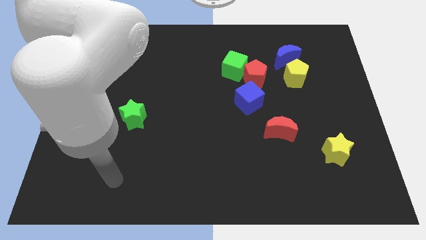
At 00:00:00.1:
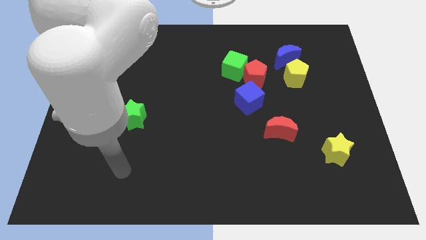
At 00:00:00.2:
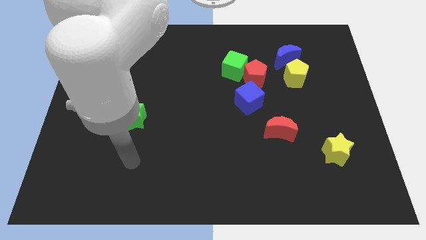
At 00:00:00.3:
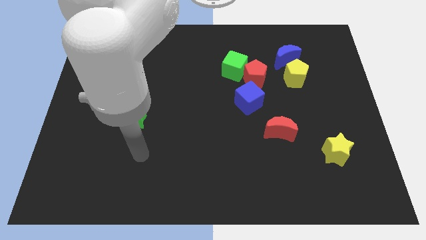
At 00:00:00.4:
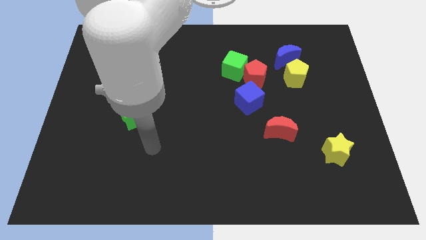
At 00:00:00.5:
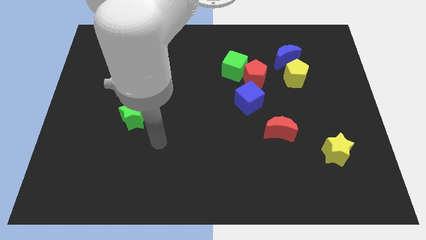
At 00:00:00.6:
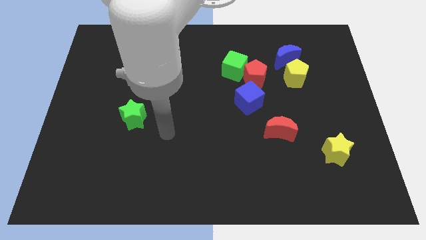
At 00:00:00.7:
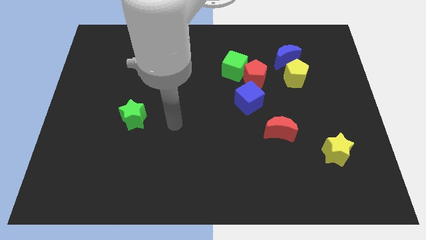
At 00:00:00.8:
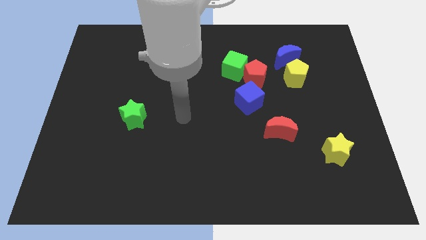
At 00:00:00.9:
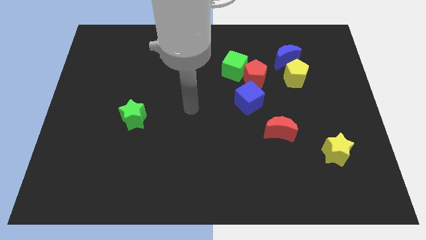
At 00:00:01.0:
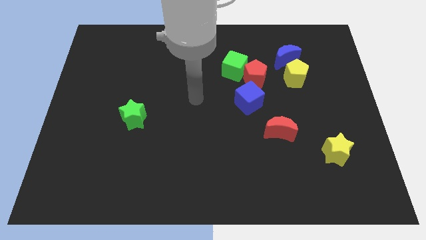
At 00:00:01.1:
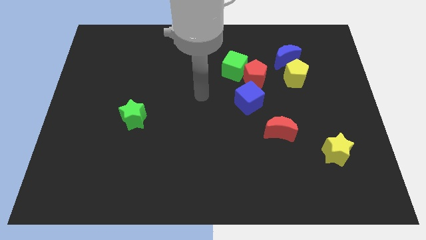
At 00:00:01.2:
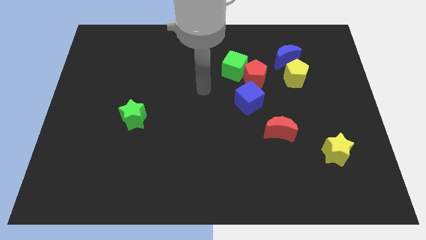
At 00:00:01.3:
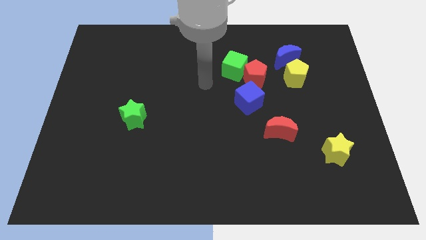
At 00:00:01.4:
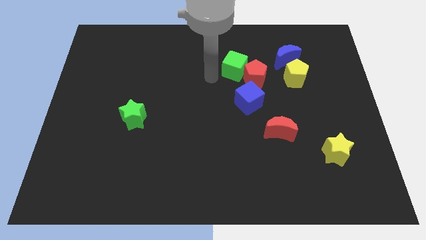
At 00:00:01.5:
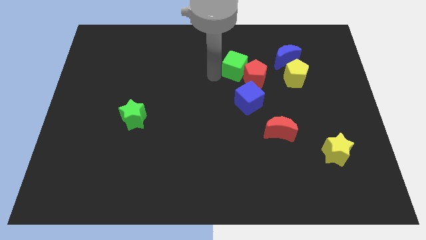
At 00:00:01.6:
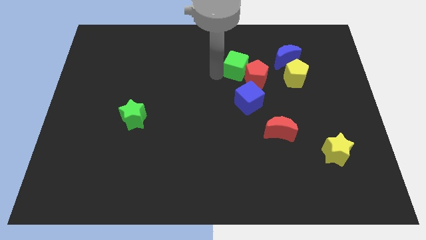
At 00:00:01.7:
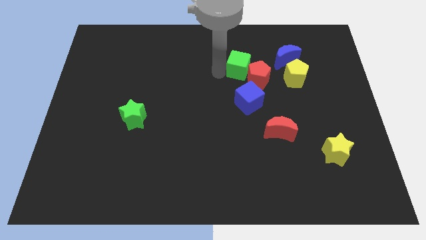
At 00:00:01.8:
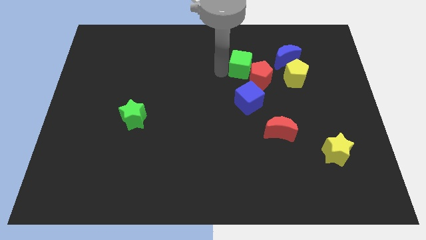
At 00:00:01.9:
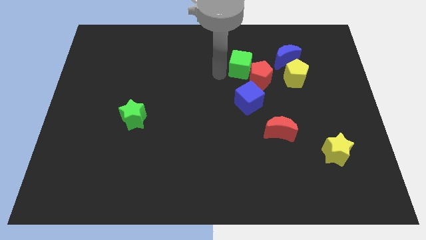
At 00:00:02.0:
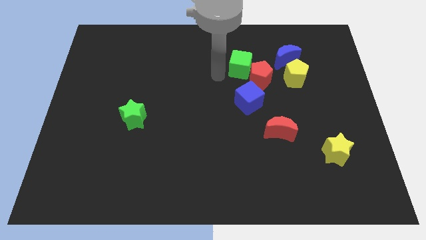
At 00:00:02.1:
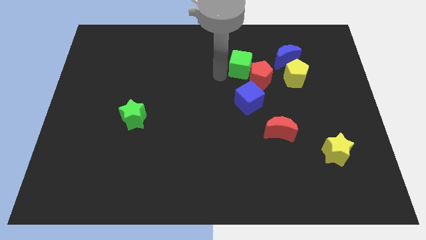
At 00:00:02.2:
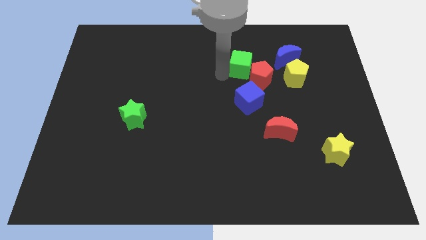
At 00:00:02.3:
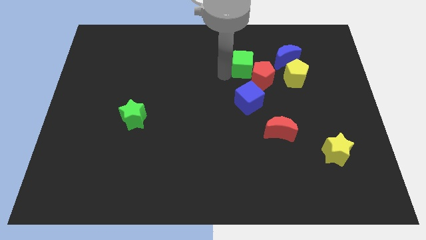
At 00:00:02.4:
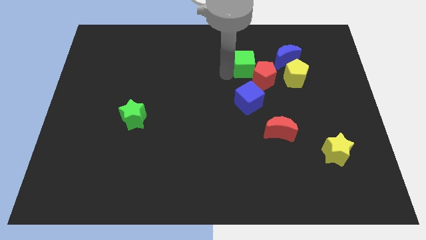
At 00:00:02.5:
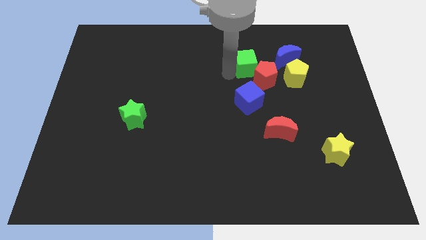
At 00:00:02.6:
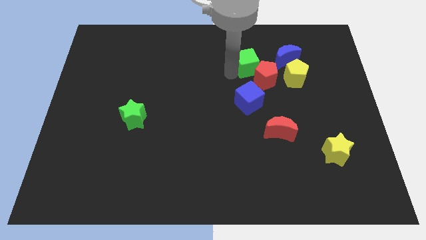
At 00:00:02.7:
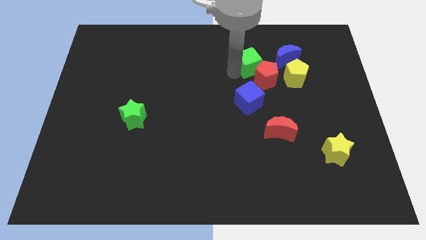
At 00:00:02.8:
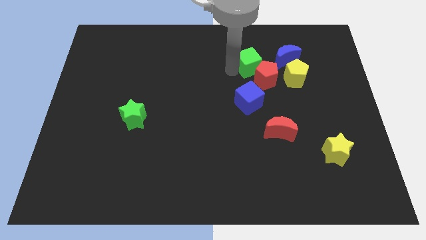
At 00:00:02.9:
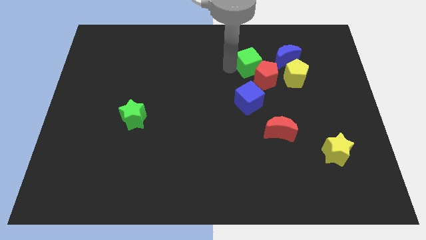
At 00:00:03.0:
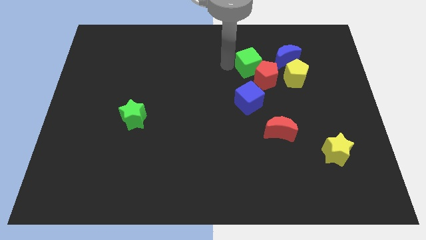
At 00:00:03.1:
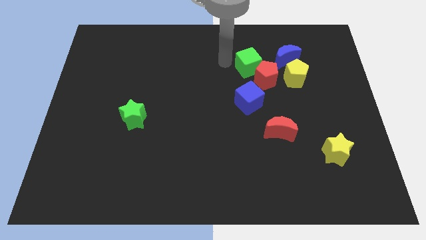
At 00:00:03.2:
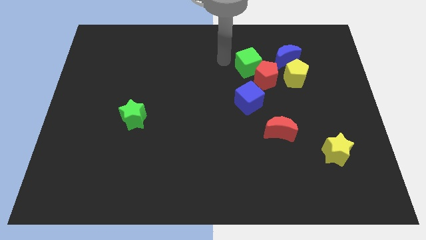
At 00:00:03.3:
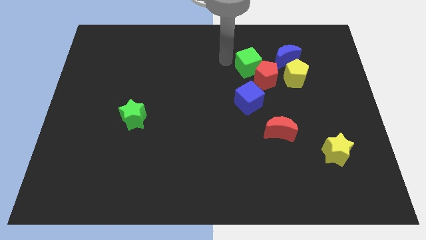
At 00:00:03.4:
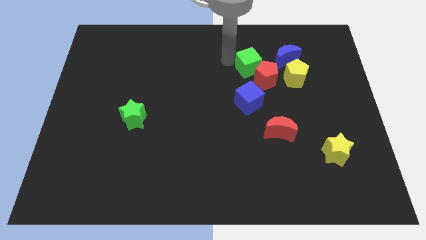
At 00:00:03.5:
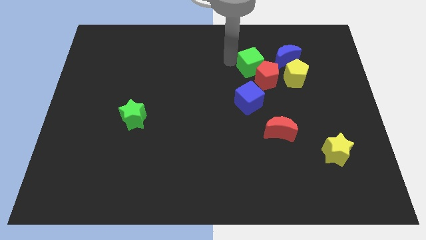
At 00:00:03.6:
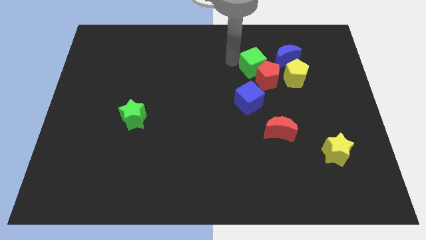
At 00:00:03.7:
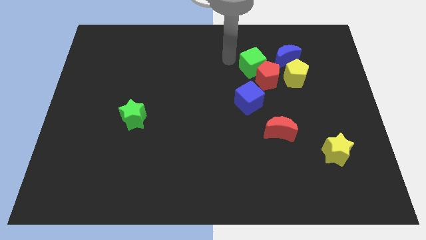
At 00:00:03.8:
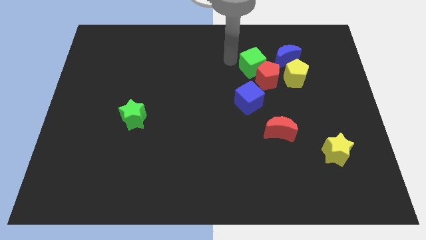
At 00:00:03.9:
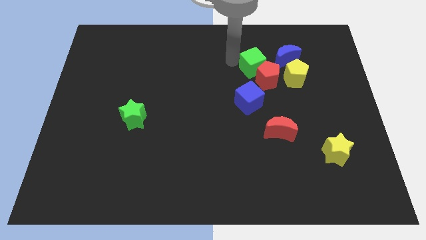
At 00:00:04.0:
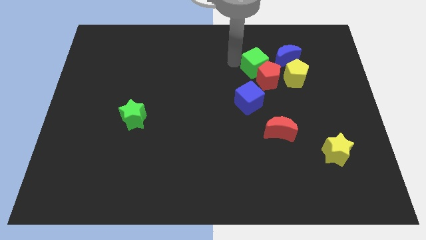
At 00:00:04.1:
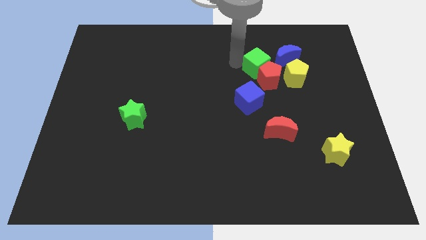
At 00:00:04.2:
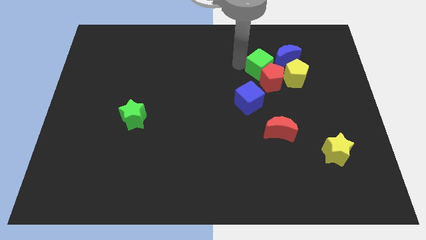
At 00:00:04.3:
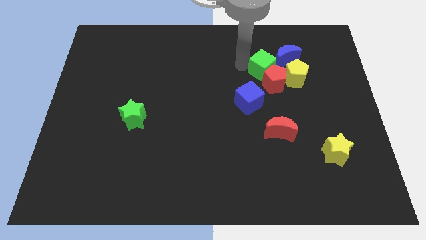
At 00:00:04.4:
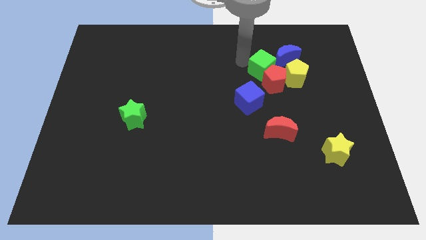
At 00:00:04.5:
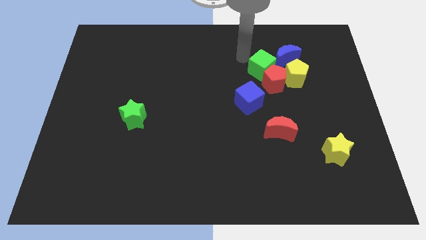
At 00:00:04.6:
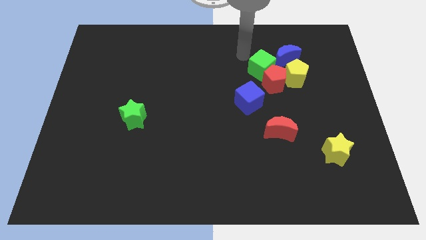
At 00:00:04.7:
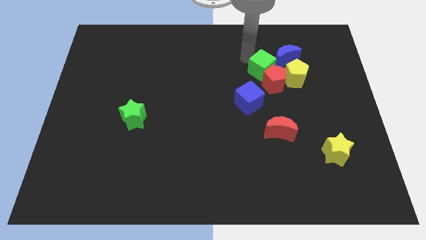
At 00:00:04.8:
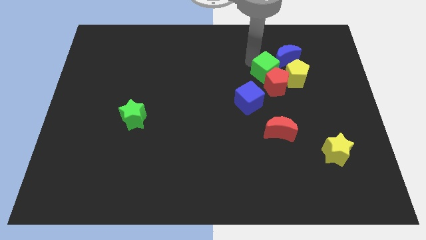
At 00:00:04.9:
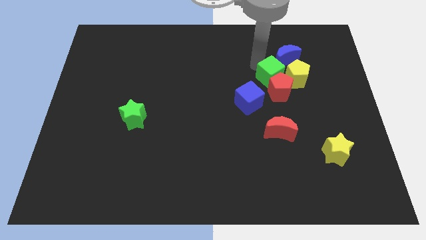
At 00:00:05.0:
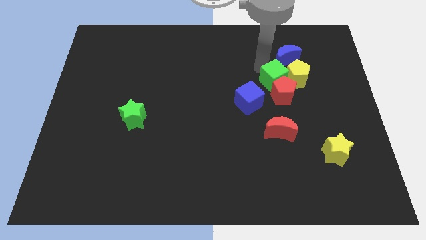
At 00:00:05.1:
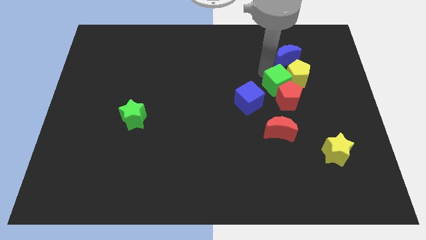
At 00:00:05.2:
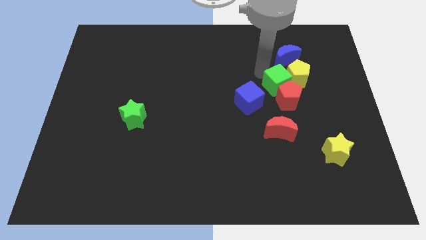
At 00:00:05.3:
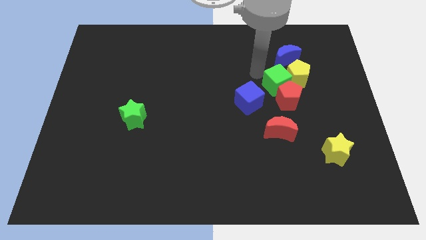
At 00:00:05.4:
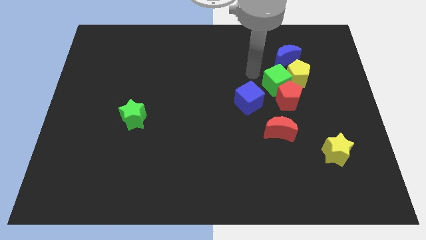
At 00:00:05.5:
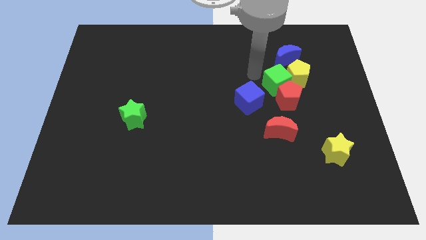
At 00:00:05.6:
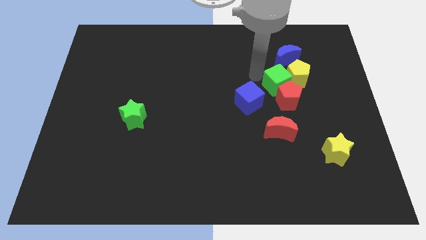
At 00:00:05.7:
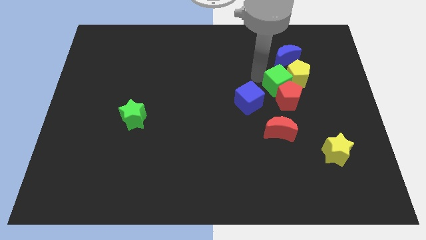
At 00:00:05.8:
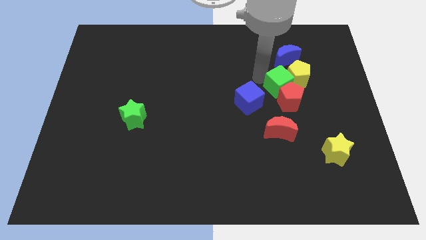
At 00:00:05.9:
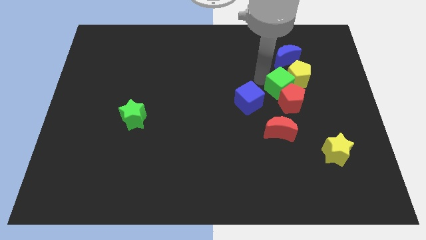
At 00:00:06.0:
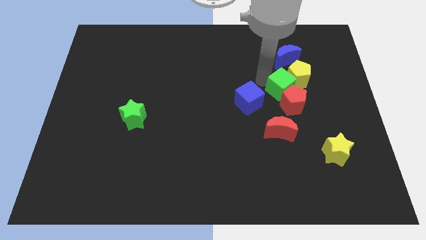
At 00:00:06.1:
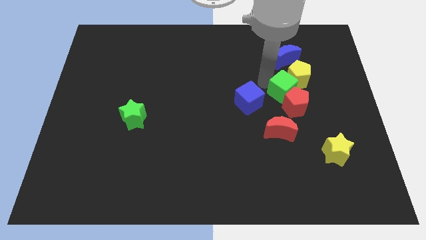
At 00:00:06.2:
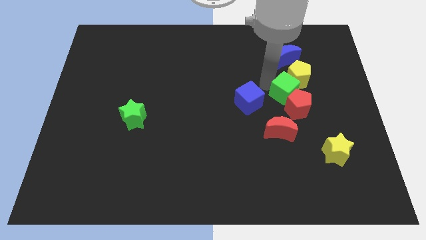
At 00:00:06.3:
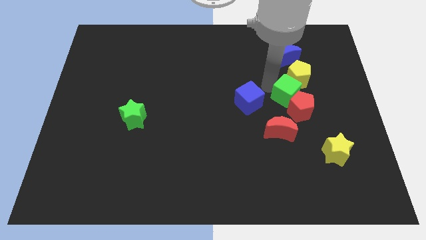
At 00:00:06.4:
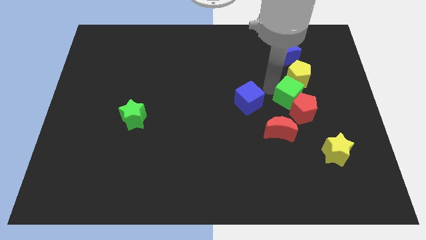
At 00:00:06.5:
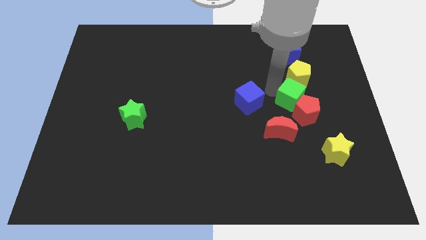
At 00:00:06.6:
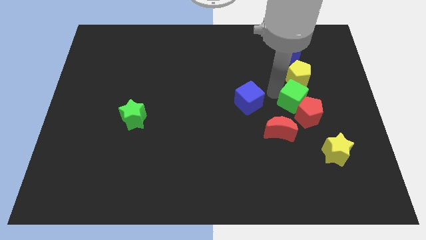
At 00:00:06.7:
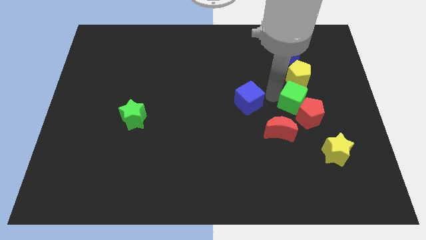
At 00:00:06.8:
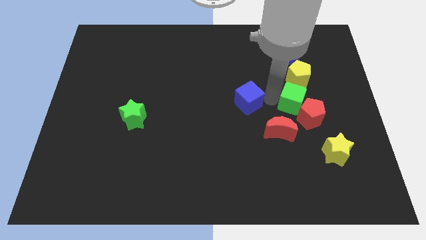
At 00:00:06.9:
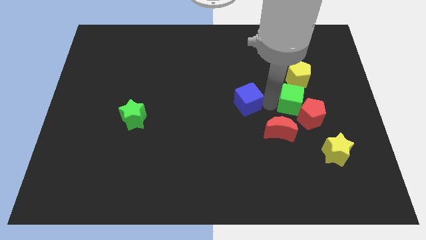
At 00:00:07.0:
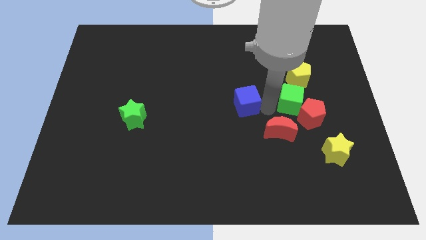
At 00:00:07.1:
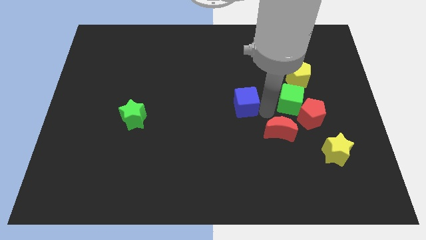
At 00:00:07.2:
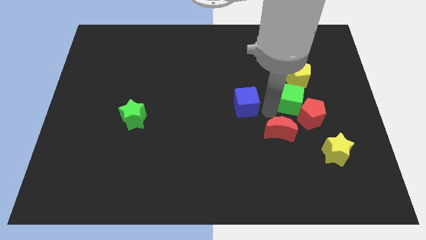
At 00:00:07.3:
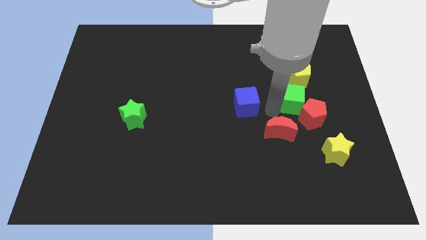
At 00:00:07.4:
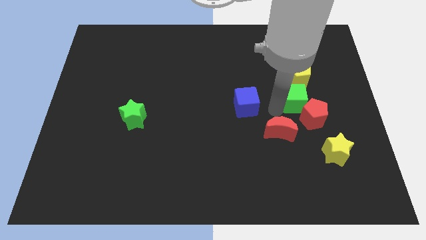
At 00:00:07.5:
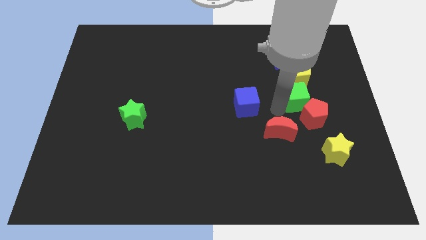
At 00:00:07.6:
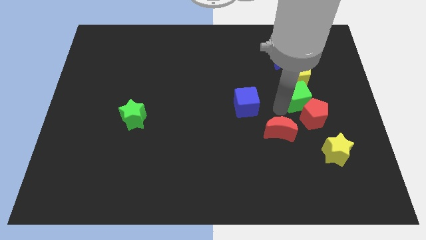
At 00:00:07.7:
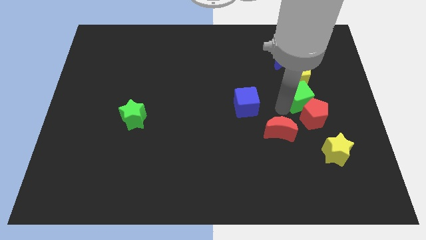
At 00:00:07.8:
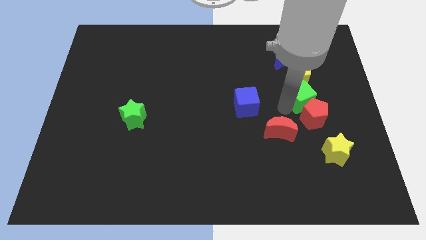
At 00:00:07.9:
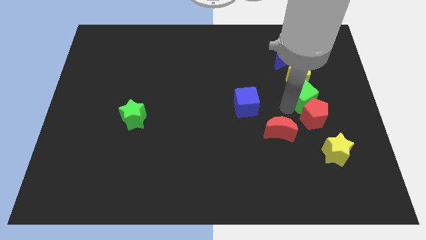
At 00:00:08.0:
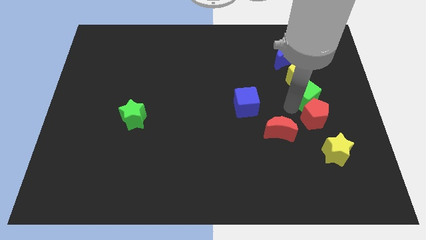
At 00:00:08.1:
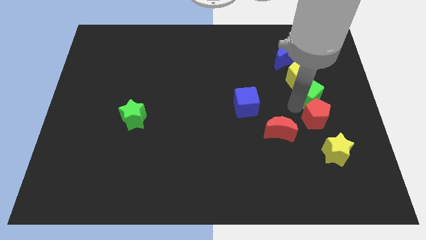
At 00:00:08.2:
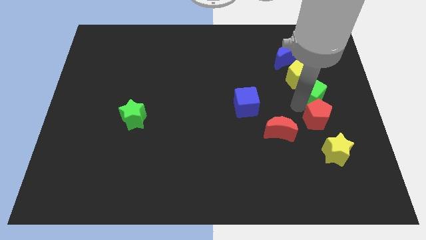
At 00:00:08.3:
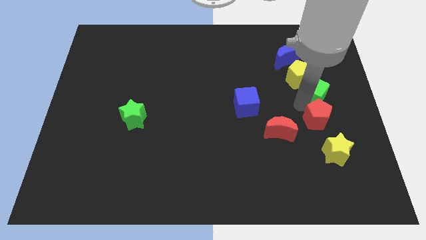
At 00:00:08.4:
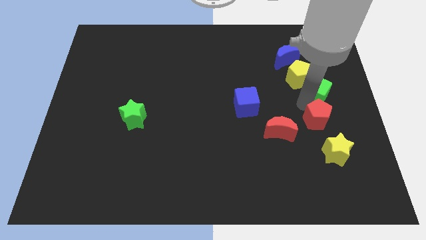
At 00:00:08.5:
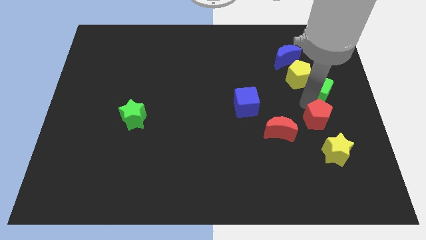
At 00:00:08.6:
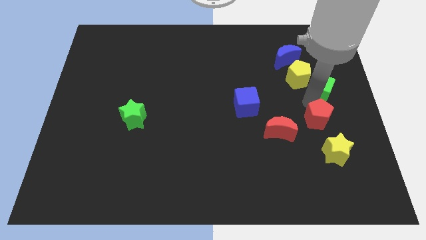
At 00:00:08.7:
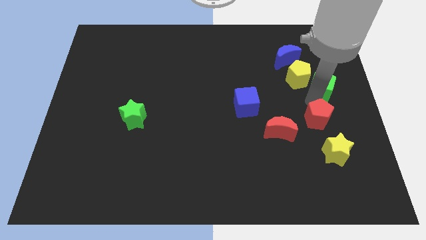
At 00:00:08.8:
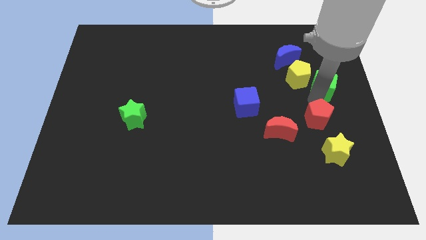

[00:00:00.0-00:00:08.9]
slide the green cube diagonally down and to the right of the blue moon
